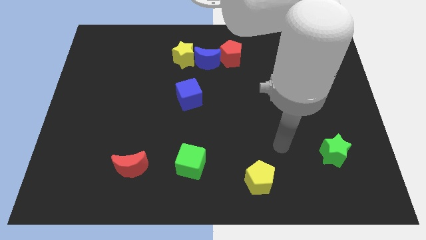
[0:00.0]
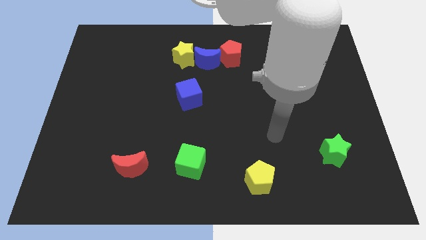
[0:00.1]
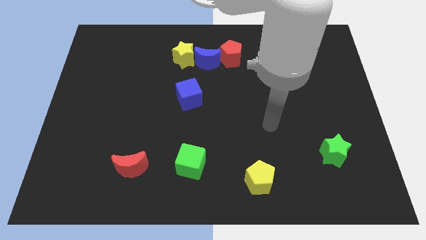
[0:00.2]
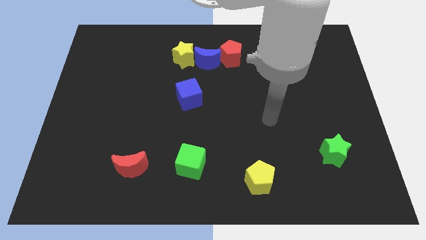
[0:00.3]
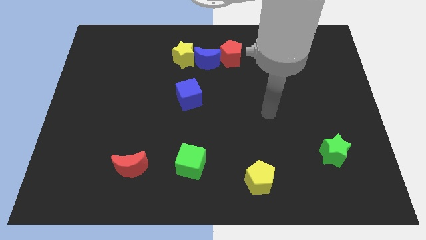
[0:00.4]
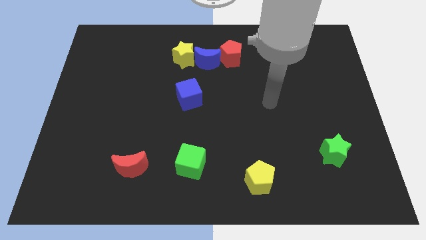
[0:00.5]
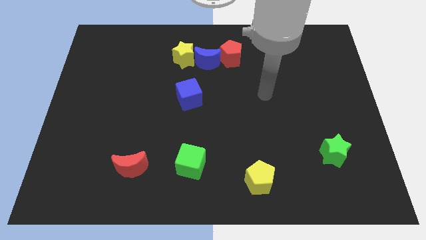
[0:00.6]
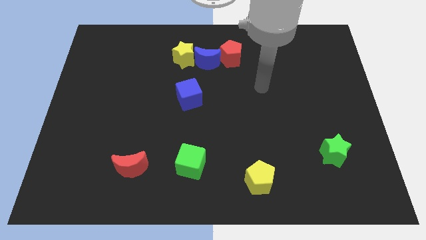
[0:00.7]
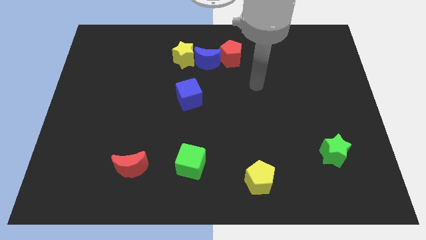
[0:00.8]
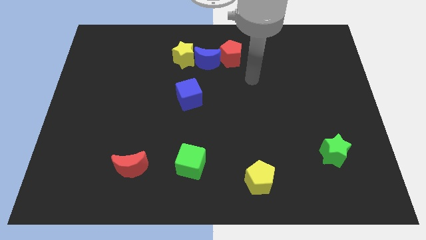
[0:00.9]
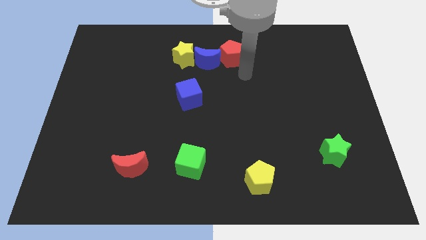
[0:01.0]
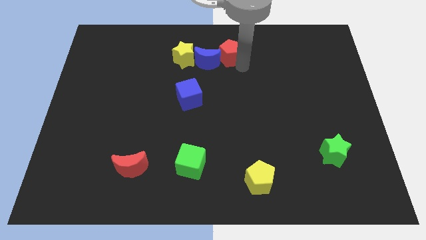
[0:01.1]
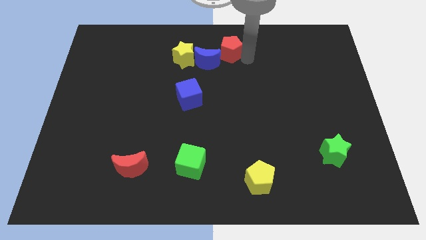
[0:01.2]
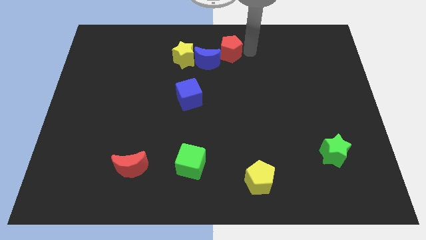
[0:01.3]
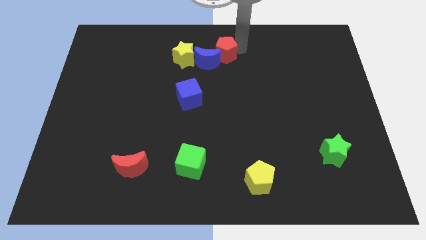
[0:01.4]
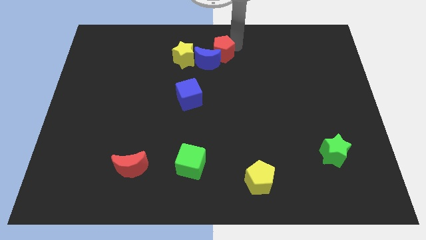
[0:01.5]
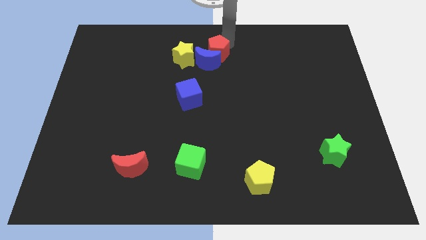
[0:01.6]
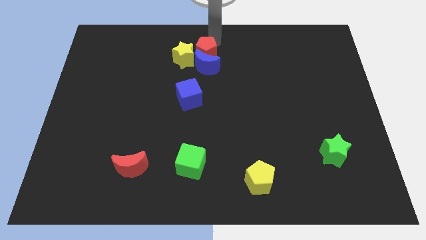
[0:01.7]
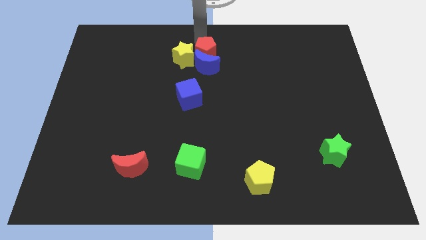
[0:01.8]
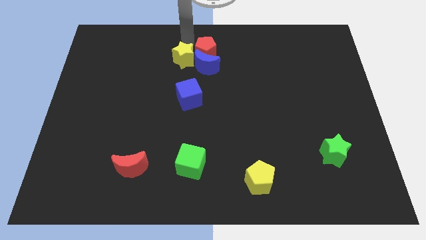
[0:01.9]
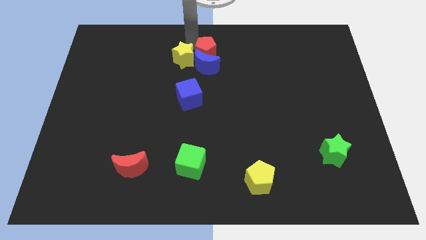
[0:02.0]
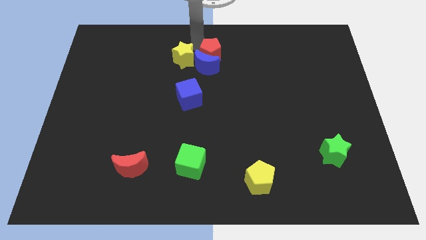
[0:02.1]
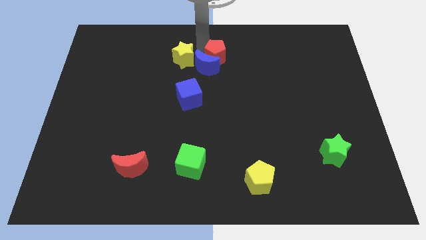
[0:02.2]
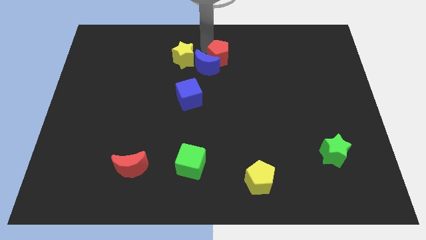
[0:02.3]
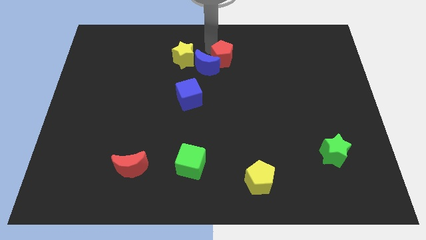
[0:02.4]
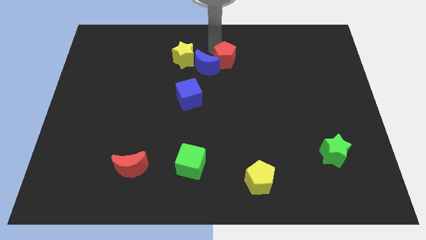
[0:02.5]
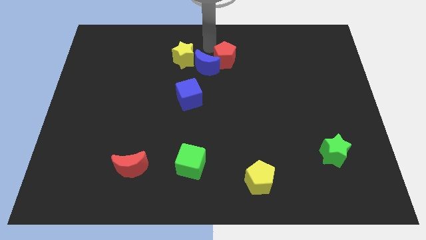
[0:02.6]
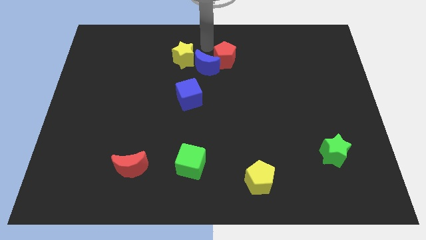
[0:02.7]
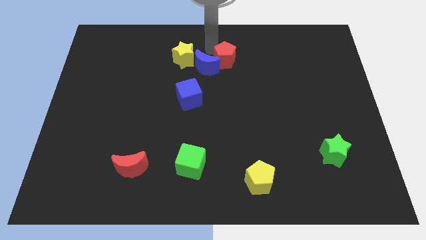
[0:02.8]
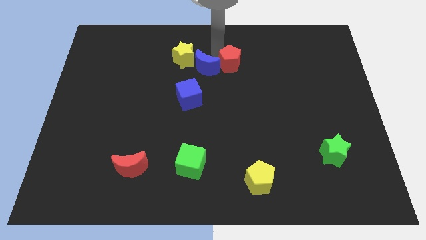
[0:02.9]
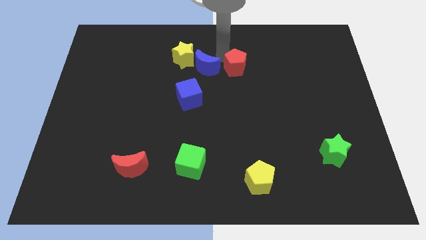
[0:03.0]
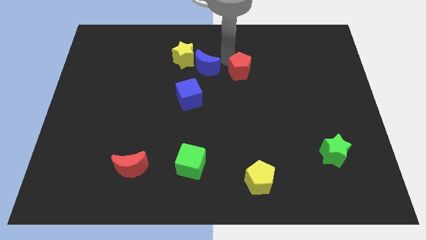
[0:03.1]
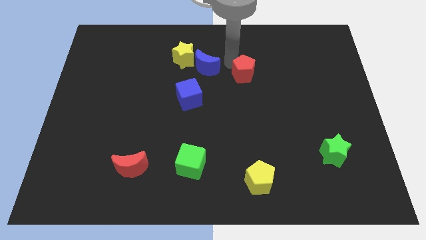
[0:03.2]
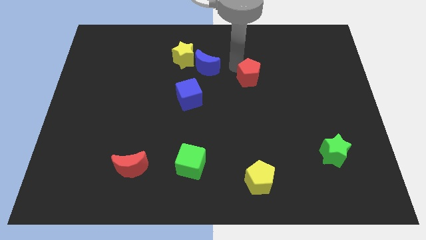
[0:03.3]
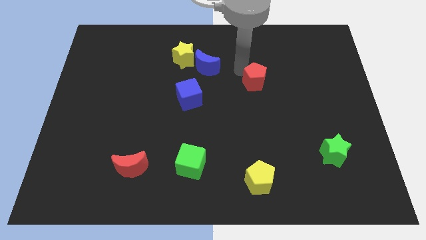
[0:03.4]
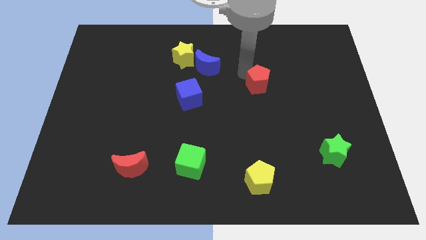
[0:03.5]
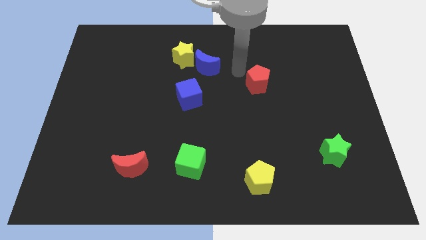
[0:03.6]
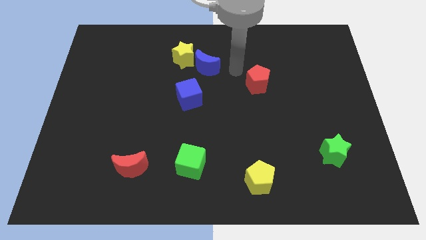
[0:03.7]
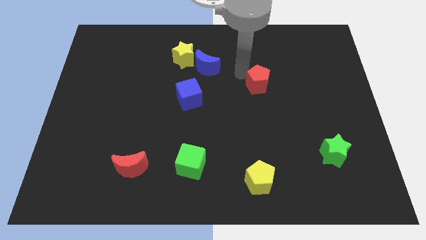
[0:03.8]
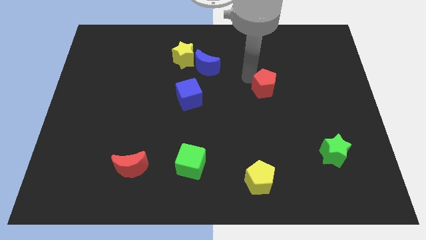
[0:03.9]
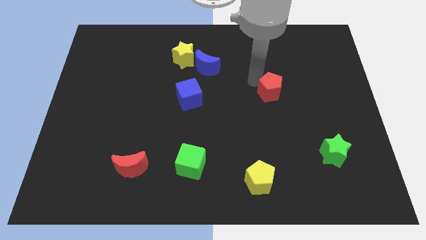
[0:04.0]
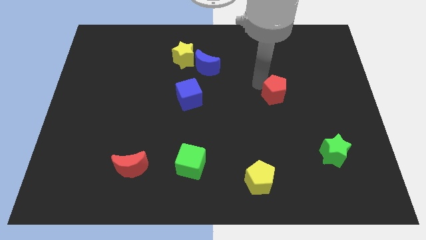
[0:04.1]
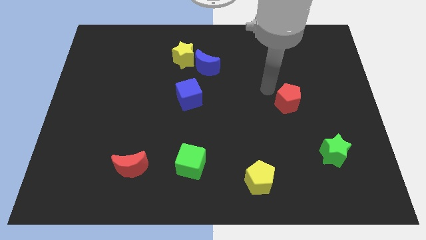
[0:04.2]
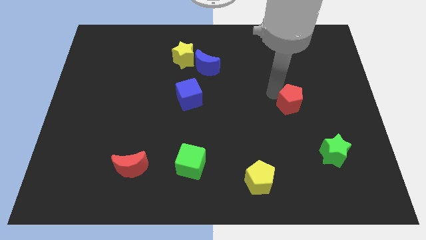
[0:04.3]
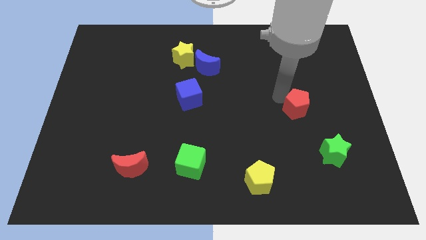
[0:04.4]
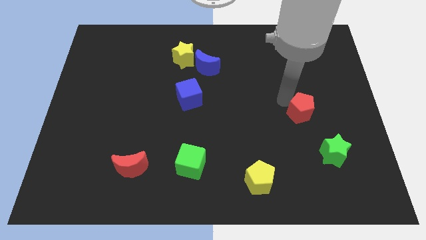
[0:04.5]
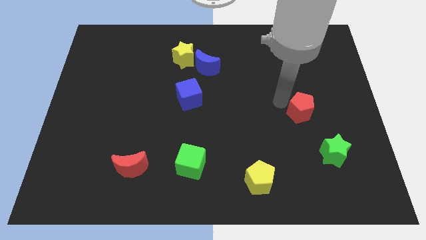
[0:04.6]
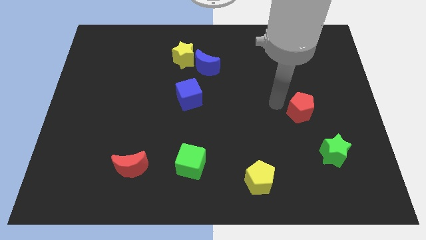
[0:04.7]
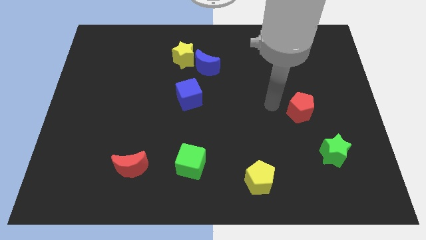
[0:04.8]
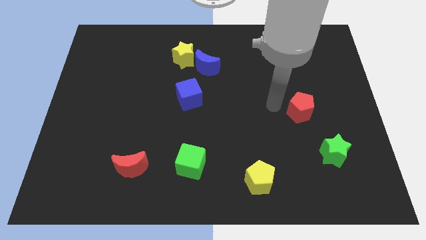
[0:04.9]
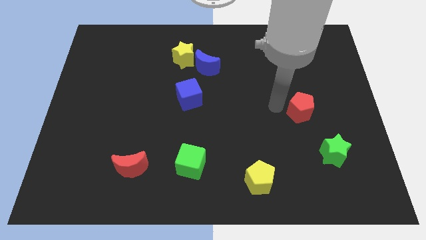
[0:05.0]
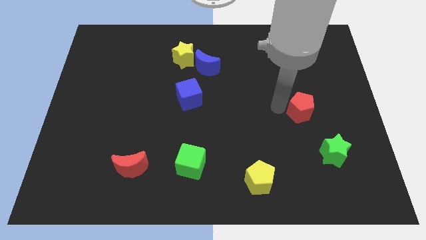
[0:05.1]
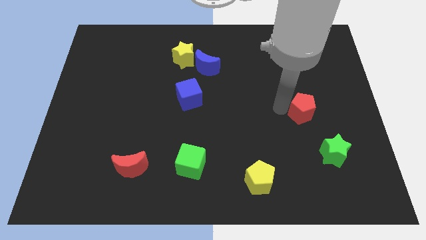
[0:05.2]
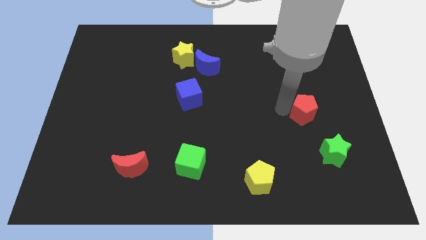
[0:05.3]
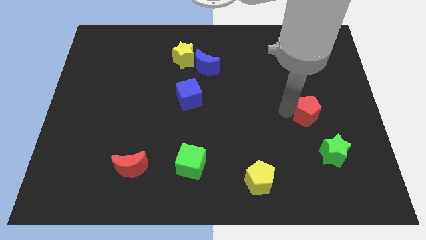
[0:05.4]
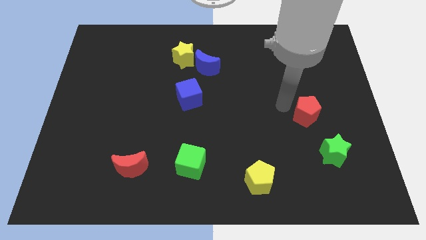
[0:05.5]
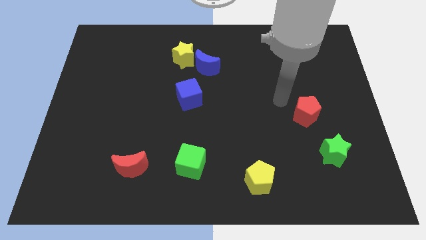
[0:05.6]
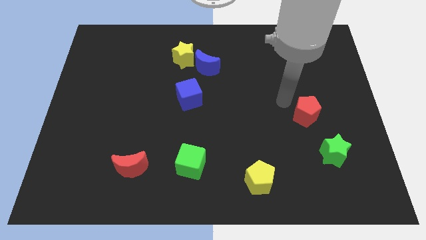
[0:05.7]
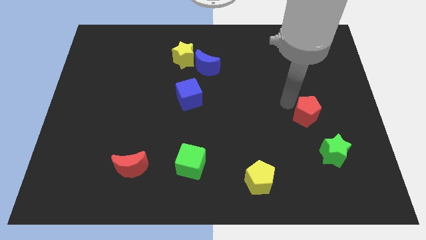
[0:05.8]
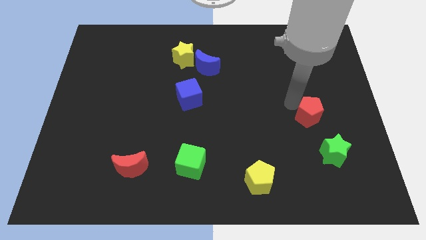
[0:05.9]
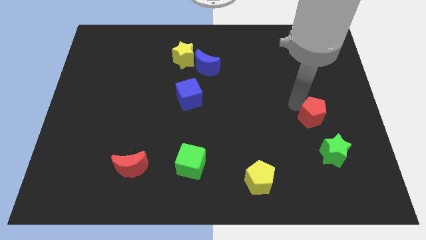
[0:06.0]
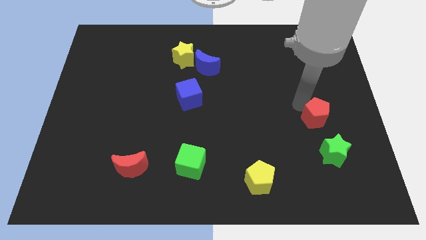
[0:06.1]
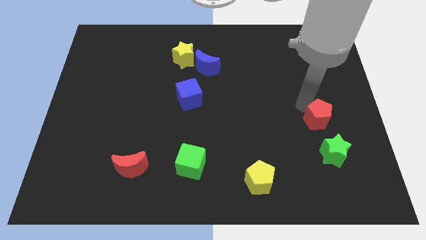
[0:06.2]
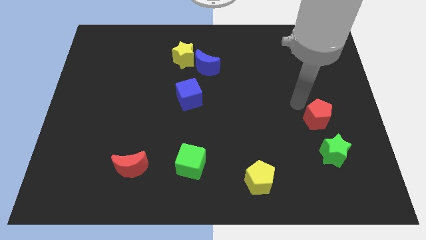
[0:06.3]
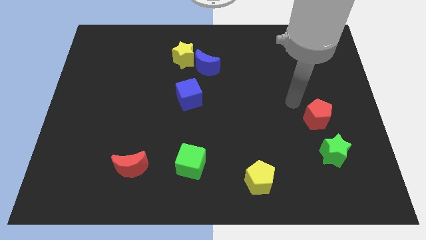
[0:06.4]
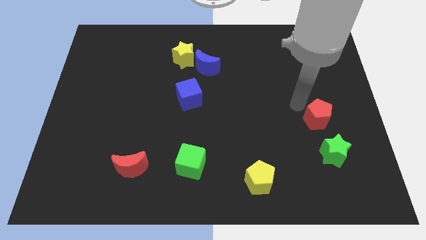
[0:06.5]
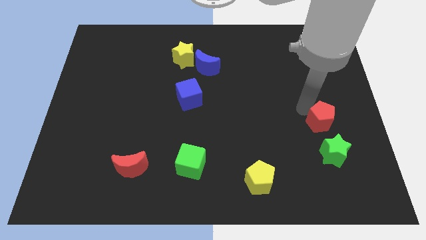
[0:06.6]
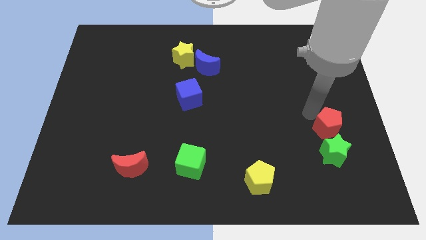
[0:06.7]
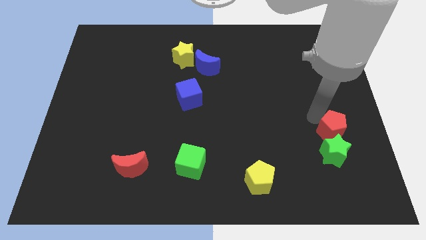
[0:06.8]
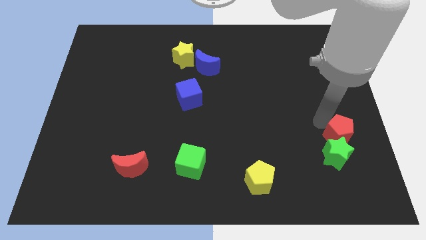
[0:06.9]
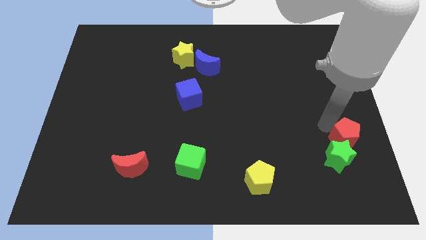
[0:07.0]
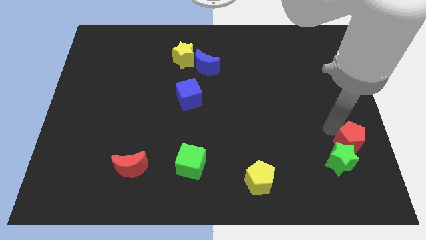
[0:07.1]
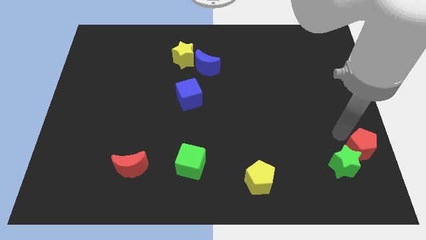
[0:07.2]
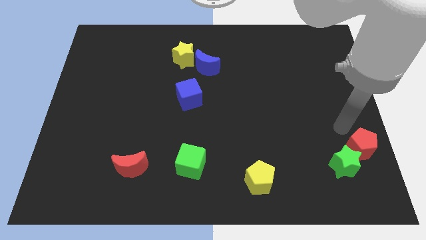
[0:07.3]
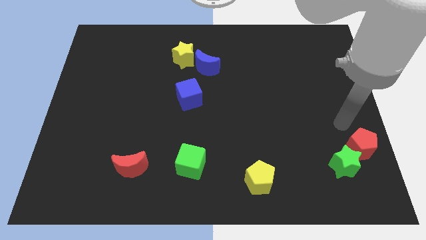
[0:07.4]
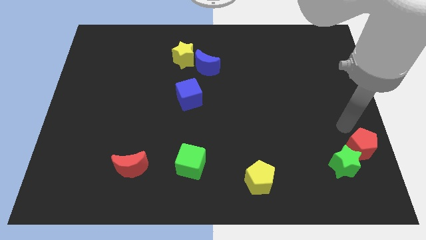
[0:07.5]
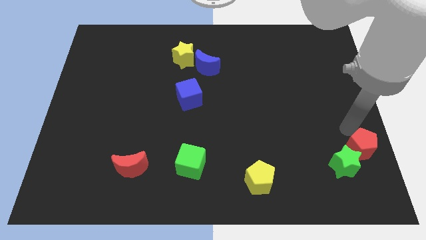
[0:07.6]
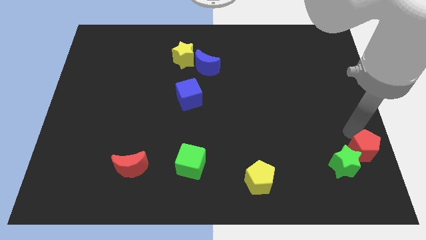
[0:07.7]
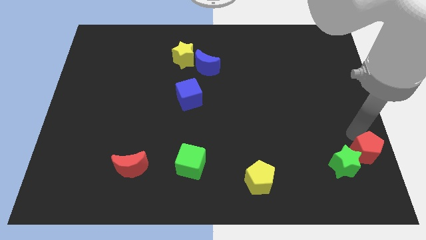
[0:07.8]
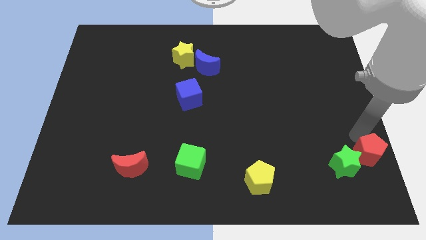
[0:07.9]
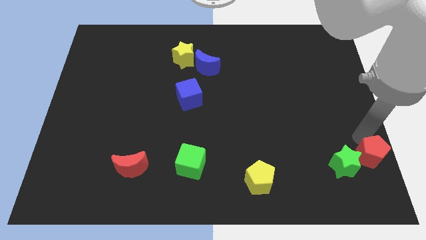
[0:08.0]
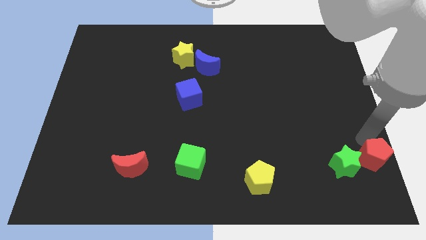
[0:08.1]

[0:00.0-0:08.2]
put the red pentagon to the bottom right corner
